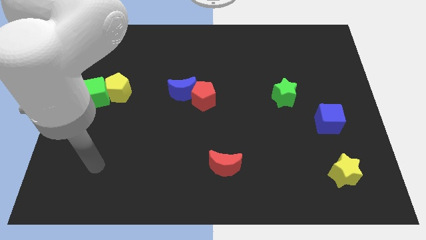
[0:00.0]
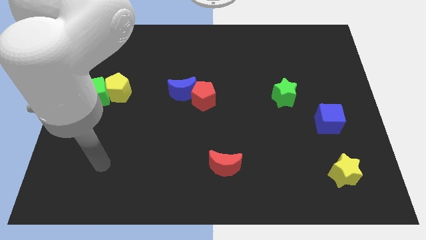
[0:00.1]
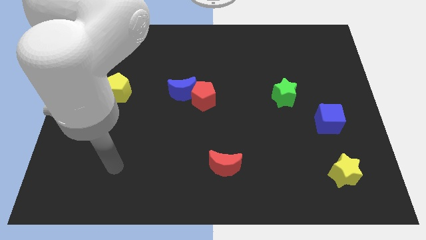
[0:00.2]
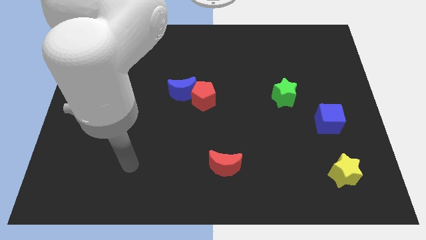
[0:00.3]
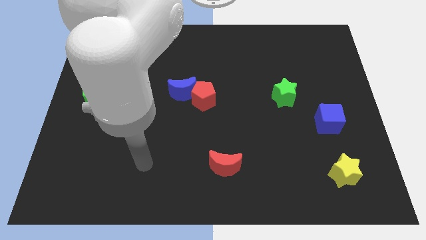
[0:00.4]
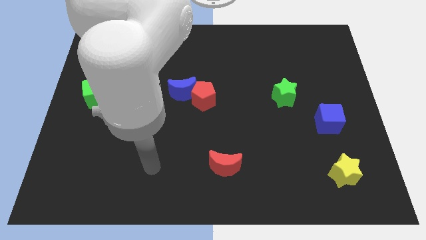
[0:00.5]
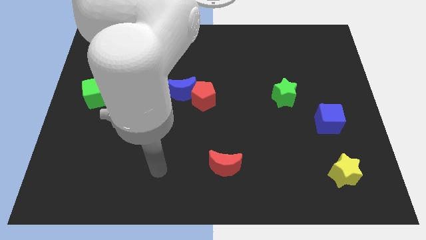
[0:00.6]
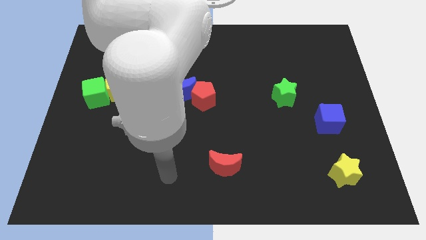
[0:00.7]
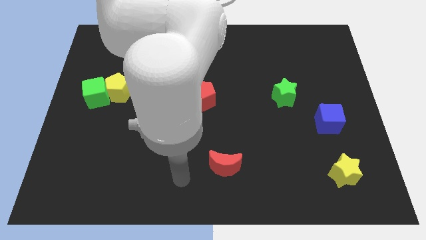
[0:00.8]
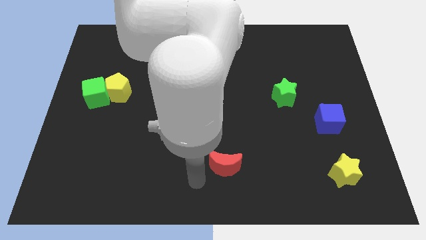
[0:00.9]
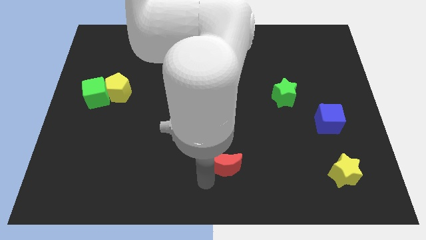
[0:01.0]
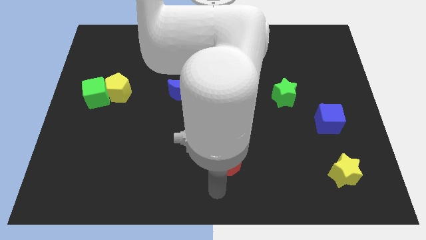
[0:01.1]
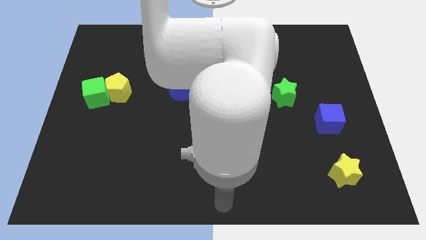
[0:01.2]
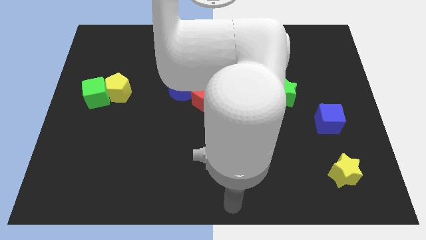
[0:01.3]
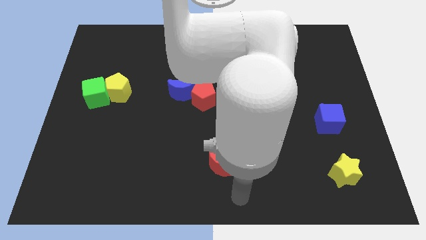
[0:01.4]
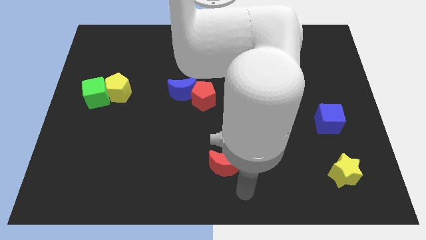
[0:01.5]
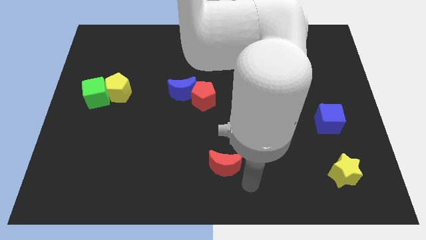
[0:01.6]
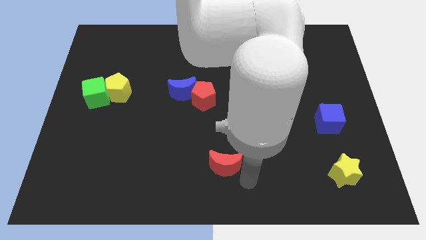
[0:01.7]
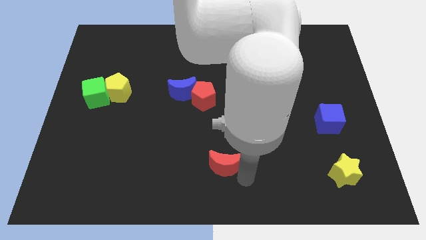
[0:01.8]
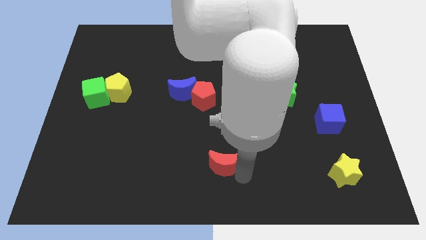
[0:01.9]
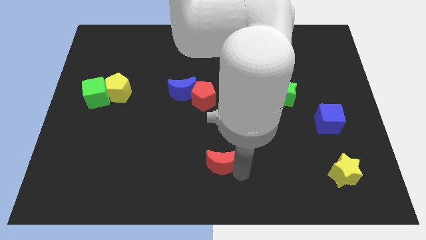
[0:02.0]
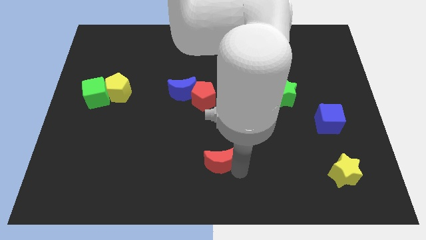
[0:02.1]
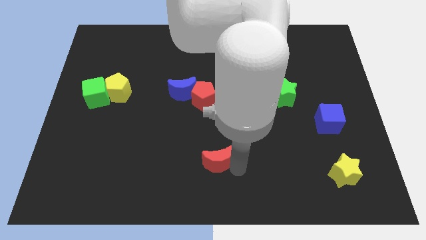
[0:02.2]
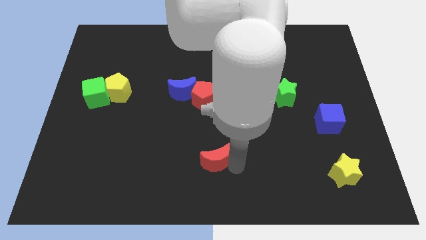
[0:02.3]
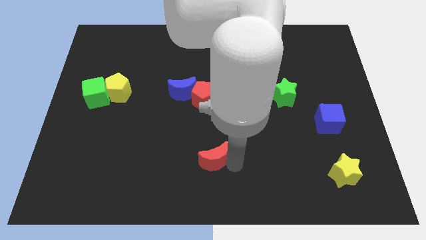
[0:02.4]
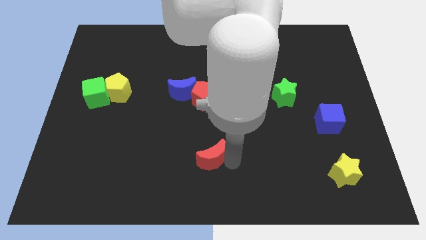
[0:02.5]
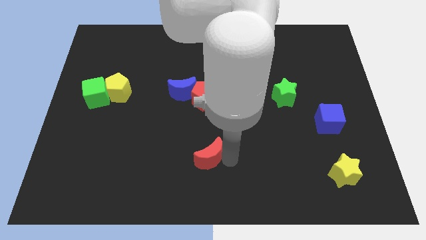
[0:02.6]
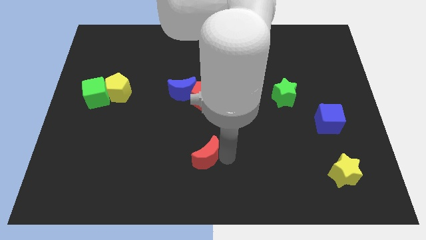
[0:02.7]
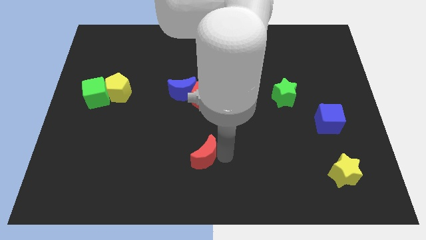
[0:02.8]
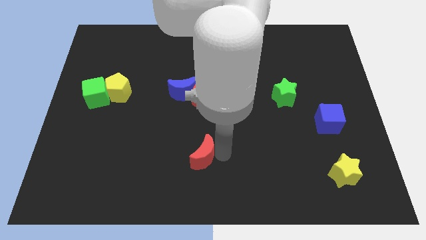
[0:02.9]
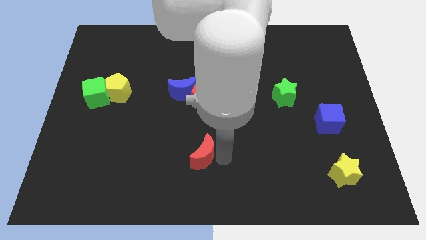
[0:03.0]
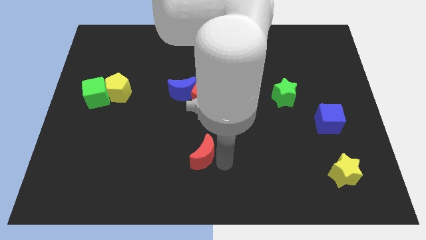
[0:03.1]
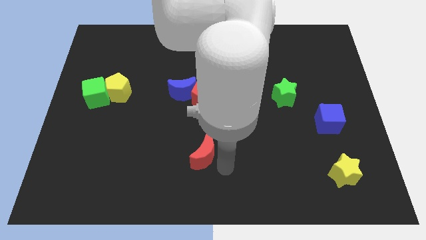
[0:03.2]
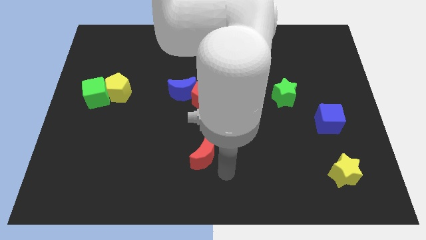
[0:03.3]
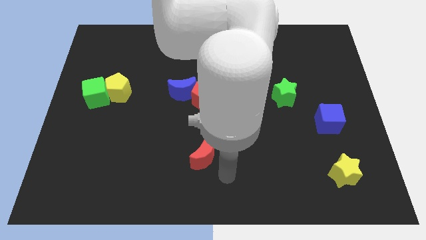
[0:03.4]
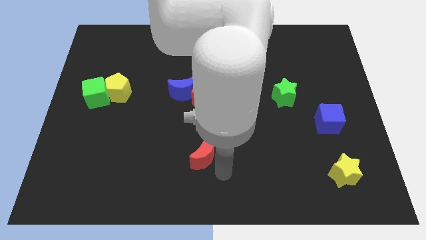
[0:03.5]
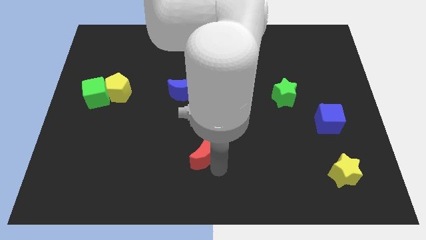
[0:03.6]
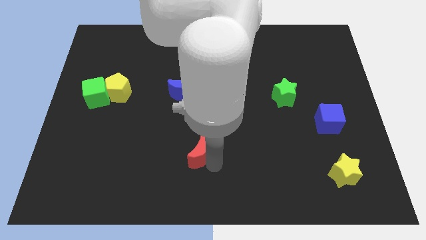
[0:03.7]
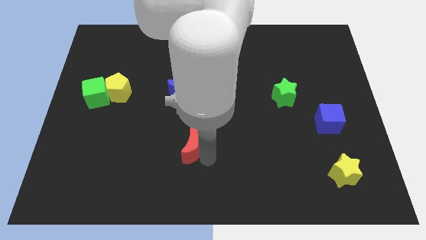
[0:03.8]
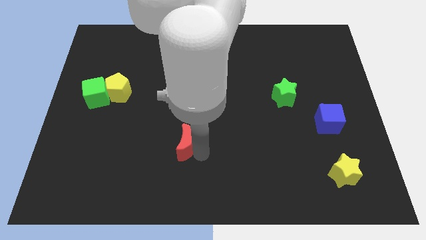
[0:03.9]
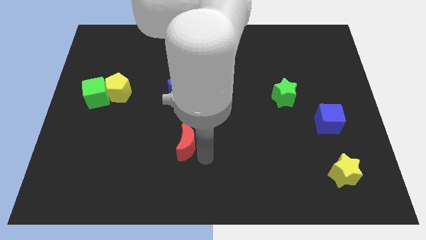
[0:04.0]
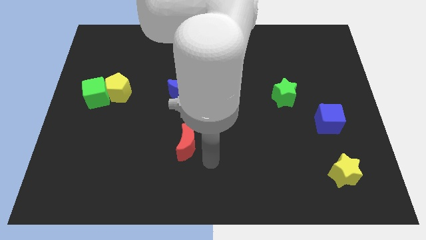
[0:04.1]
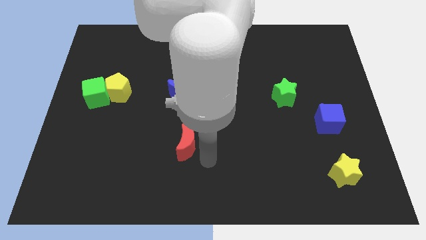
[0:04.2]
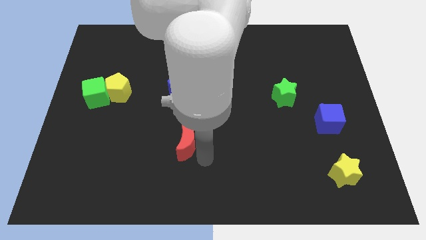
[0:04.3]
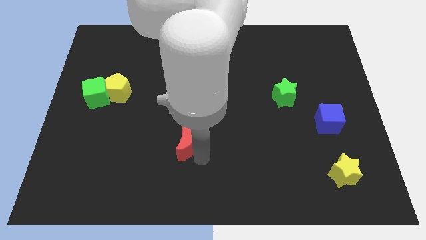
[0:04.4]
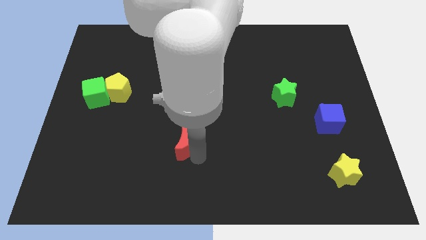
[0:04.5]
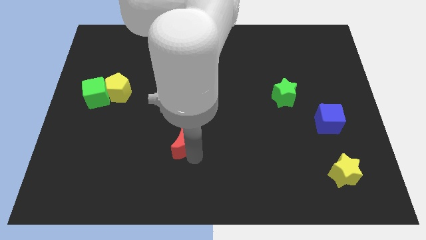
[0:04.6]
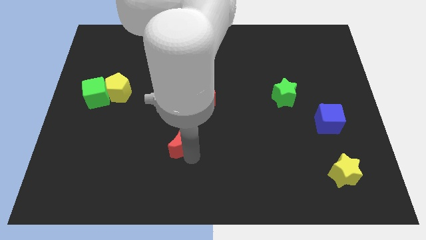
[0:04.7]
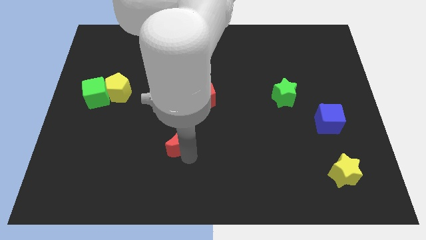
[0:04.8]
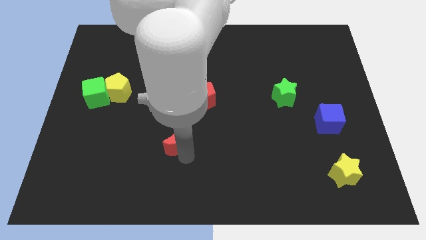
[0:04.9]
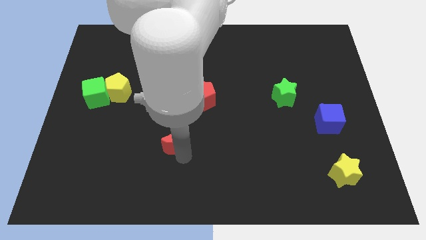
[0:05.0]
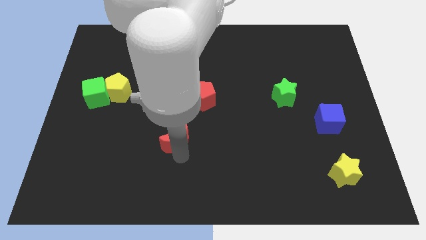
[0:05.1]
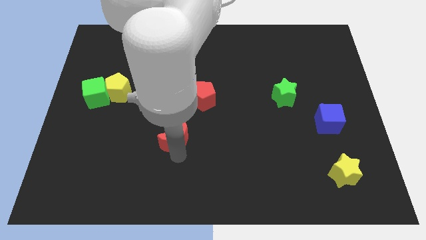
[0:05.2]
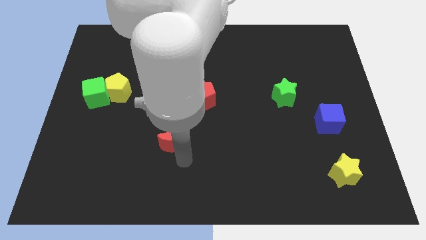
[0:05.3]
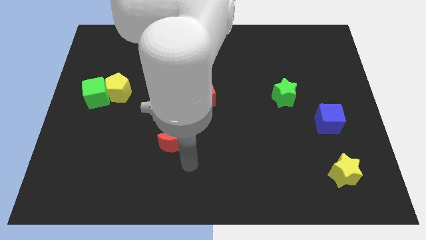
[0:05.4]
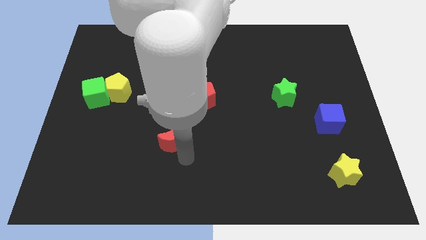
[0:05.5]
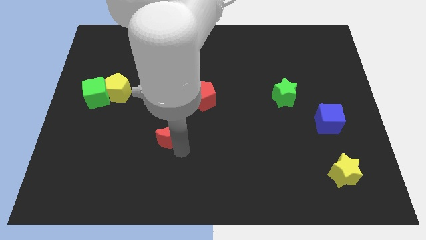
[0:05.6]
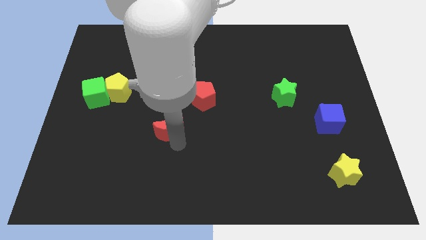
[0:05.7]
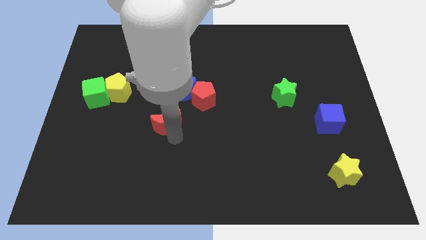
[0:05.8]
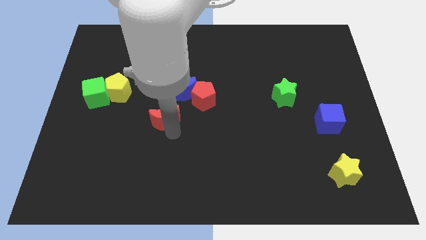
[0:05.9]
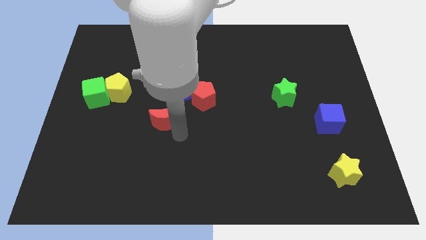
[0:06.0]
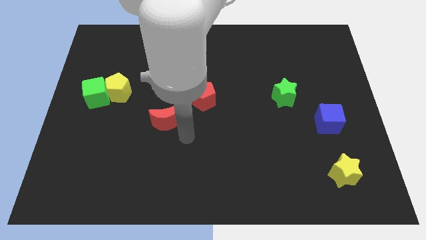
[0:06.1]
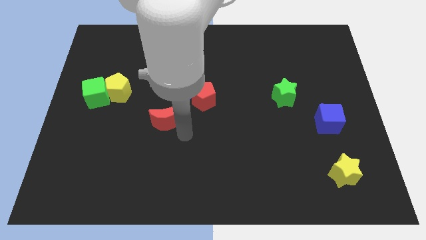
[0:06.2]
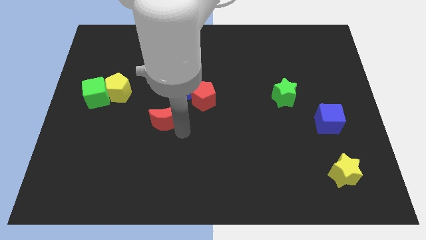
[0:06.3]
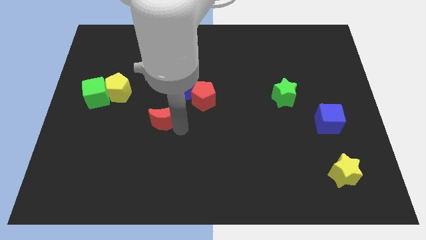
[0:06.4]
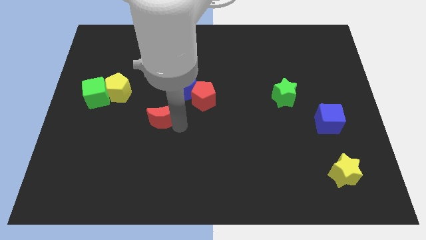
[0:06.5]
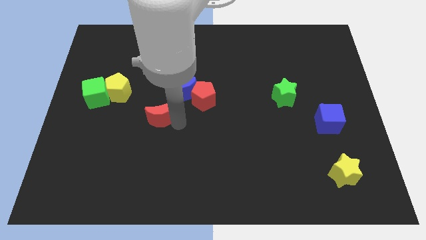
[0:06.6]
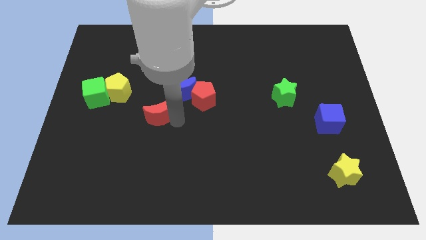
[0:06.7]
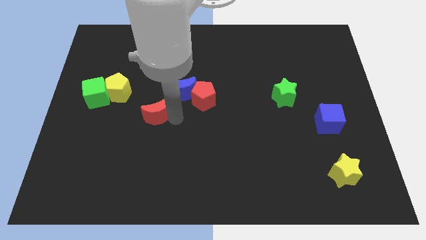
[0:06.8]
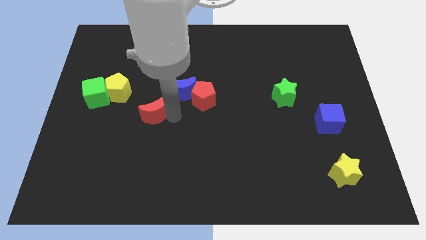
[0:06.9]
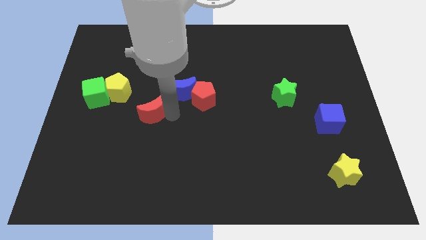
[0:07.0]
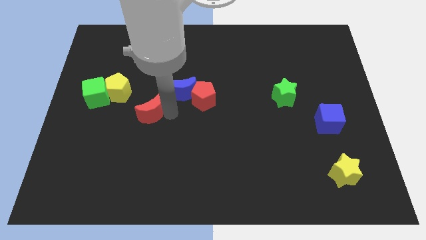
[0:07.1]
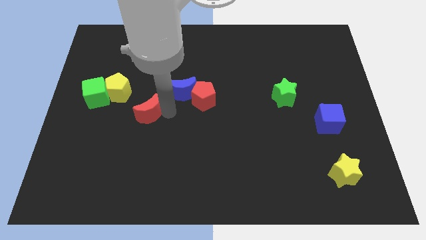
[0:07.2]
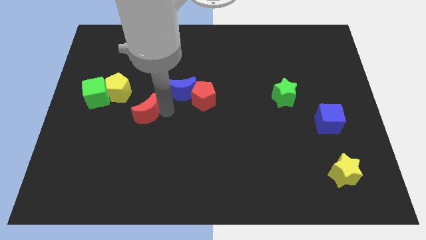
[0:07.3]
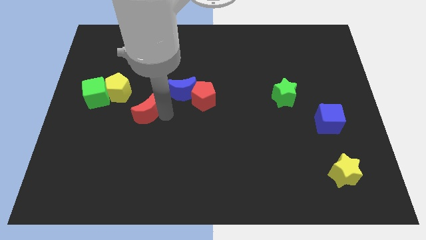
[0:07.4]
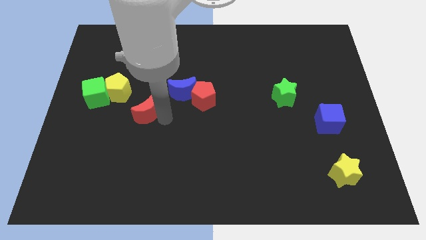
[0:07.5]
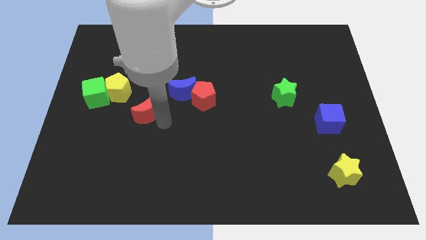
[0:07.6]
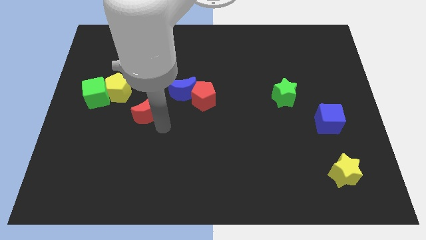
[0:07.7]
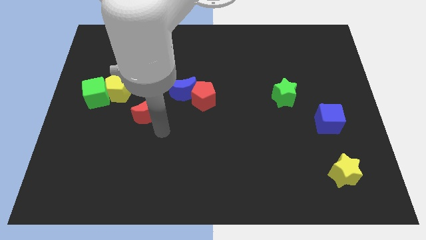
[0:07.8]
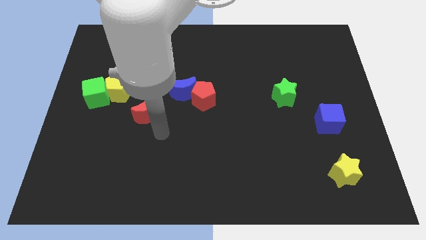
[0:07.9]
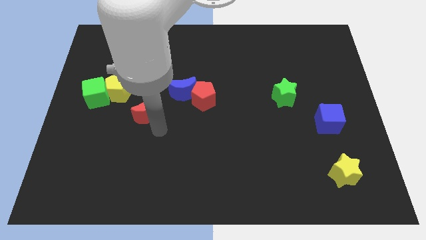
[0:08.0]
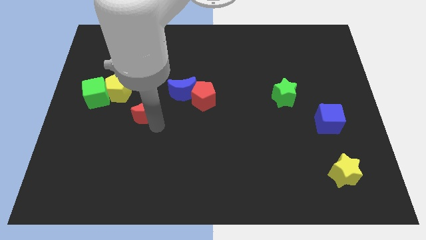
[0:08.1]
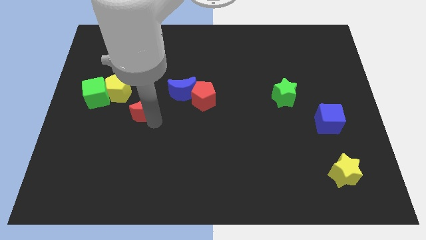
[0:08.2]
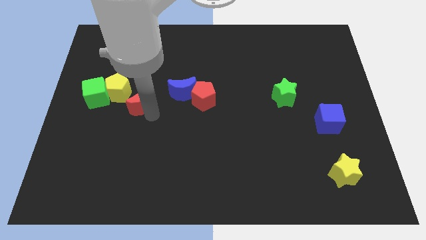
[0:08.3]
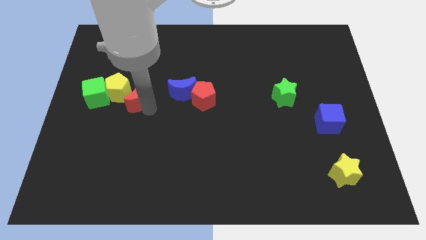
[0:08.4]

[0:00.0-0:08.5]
put the red moon towards the yellow pentagon
